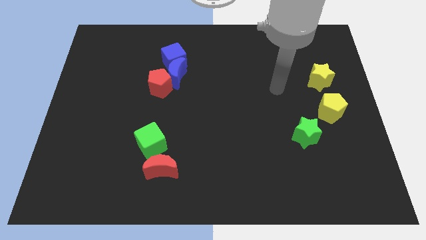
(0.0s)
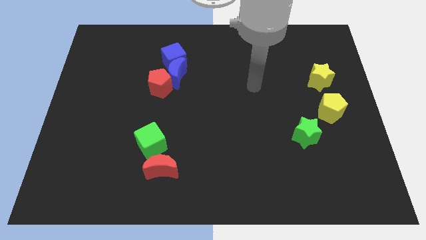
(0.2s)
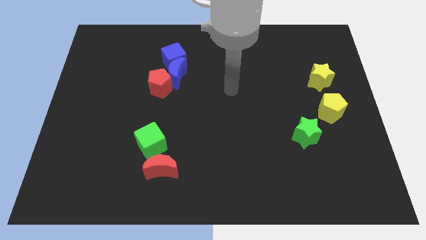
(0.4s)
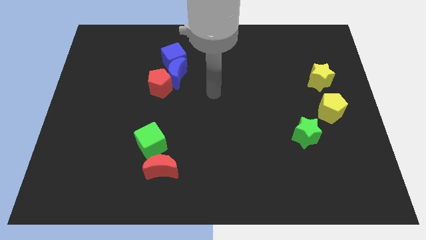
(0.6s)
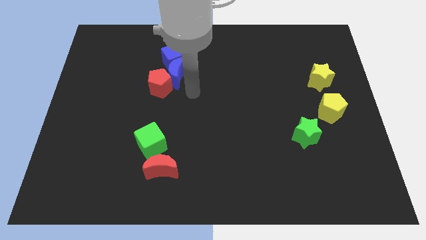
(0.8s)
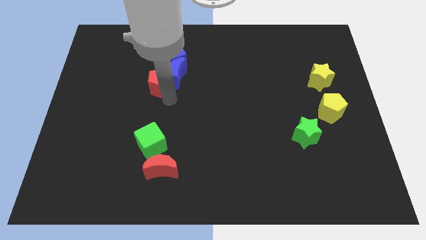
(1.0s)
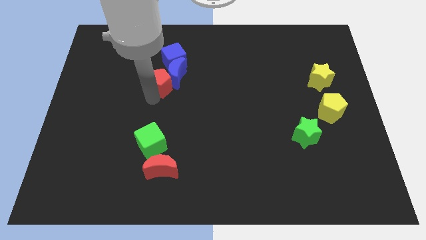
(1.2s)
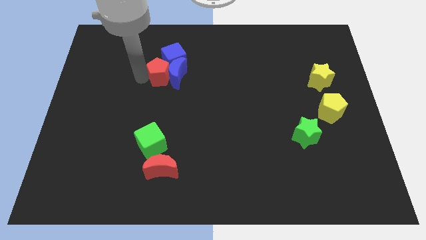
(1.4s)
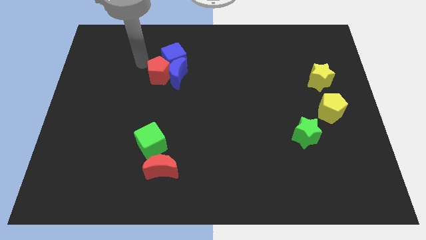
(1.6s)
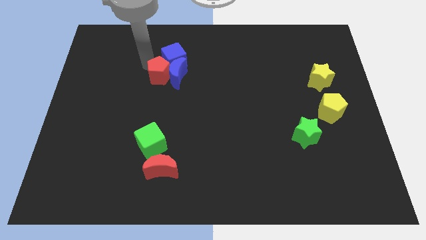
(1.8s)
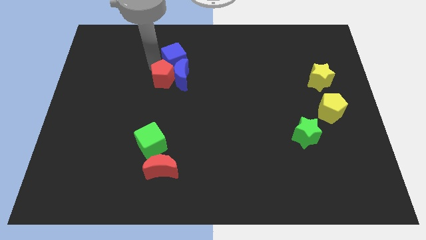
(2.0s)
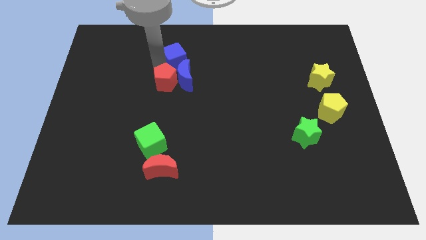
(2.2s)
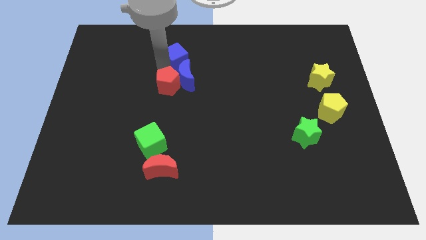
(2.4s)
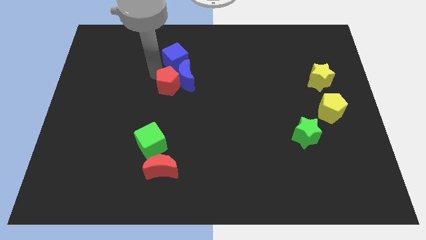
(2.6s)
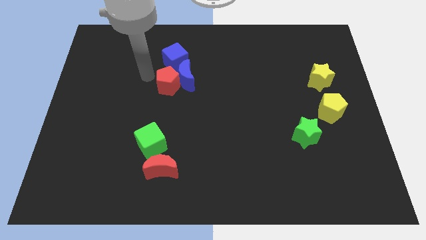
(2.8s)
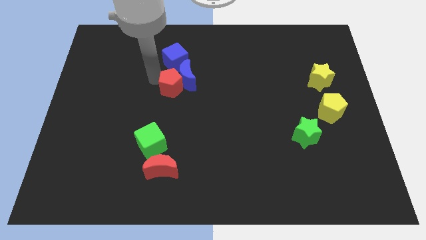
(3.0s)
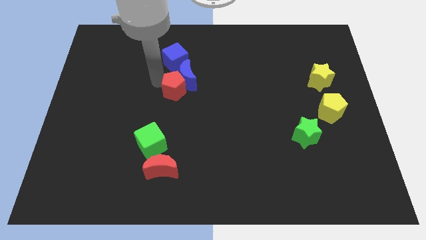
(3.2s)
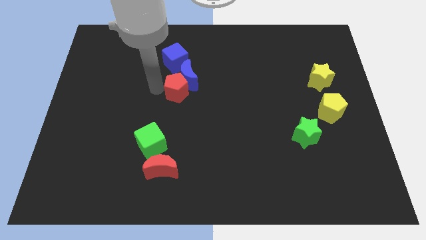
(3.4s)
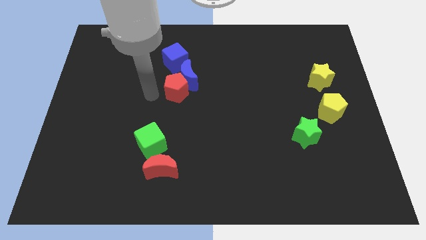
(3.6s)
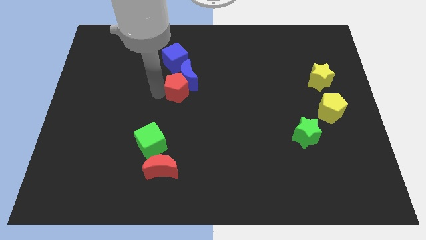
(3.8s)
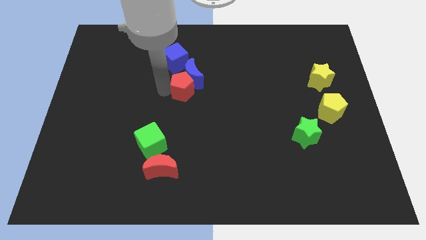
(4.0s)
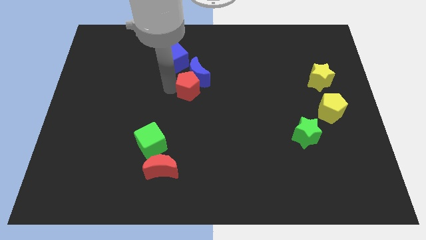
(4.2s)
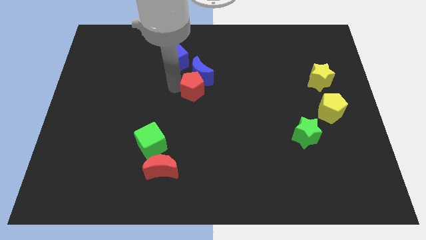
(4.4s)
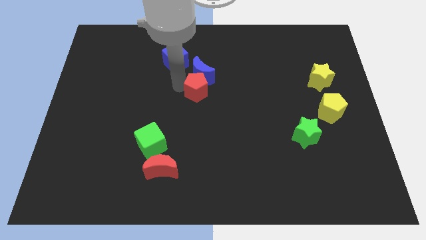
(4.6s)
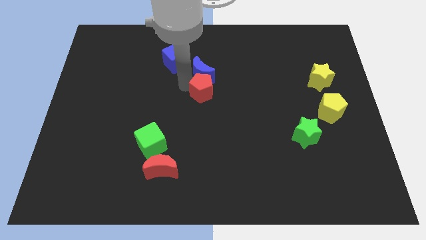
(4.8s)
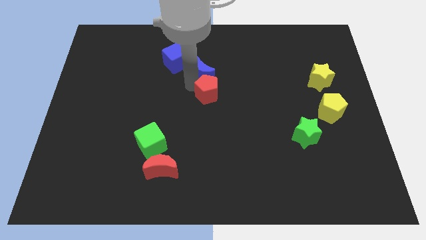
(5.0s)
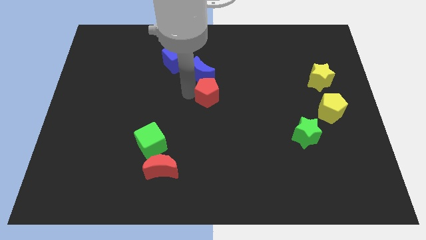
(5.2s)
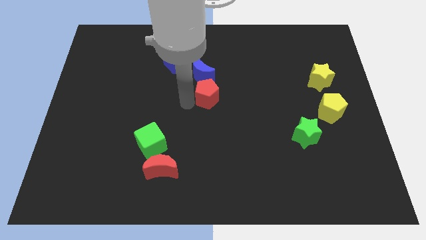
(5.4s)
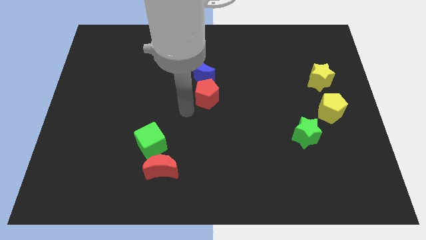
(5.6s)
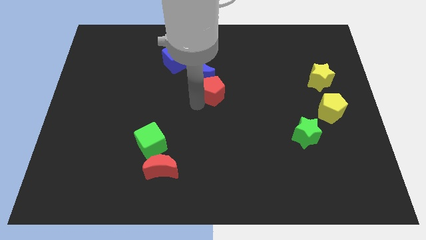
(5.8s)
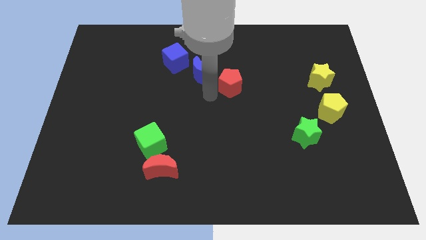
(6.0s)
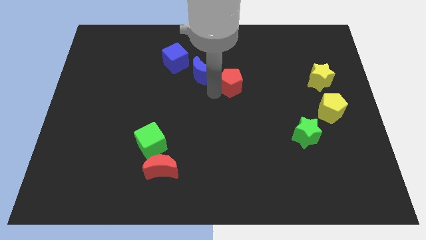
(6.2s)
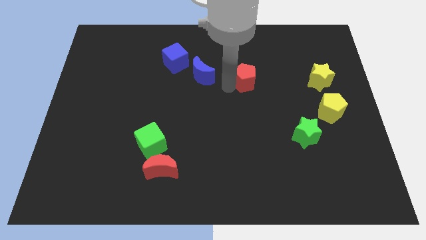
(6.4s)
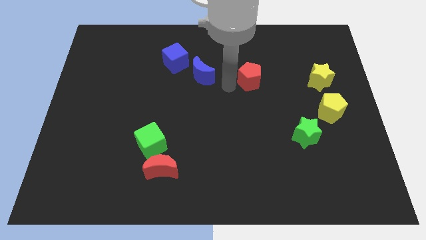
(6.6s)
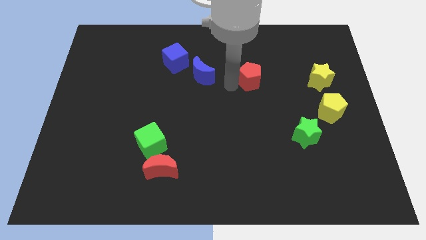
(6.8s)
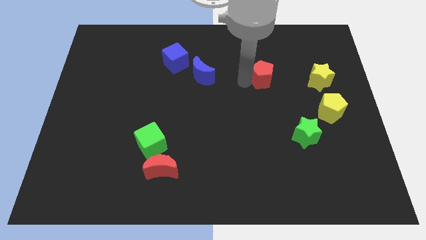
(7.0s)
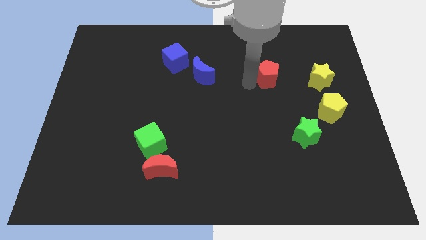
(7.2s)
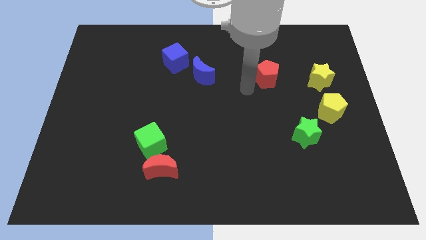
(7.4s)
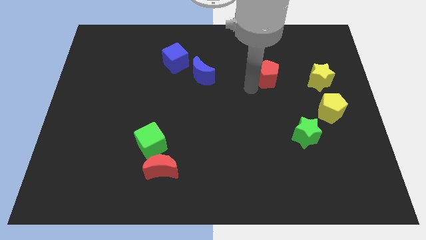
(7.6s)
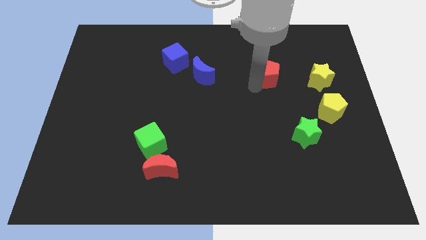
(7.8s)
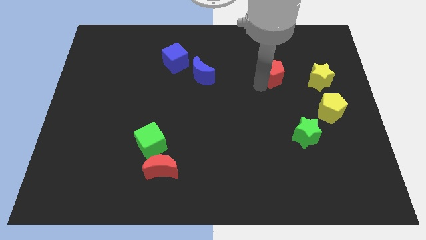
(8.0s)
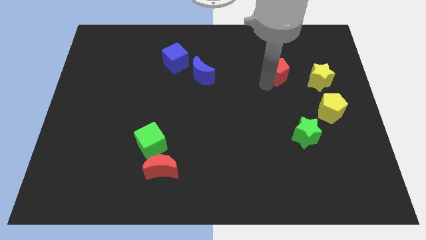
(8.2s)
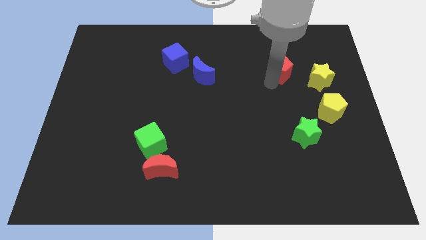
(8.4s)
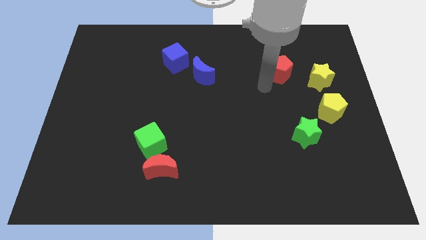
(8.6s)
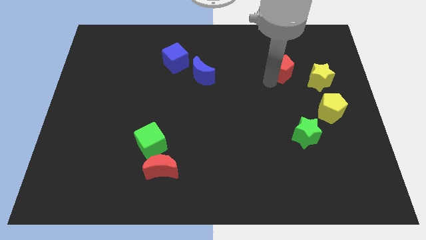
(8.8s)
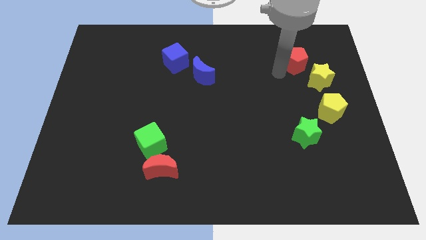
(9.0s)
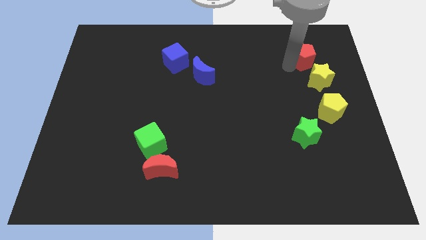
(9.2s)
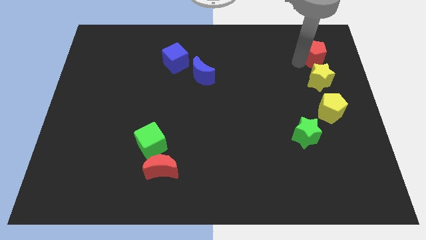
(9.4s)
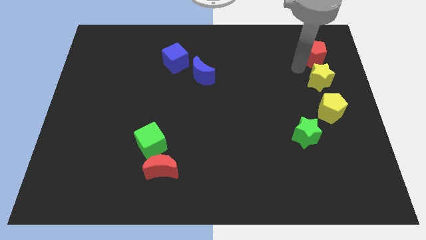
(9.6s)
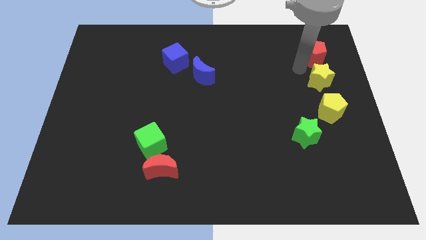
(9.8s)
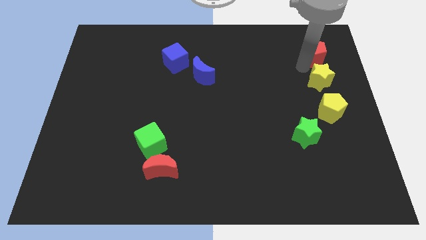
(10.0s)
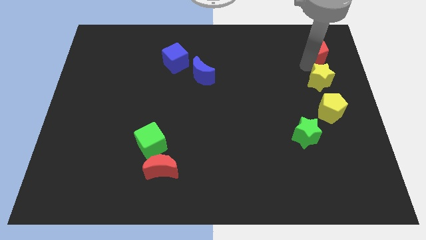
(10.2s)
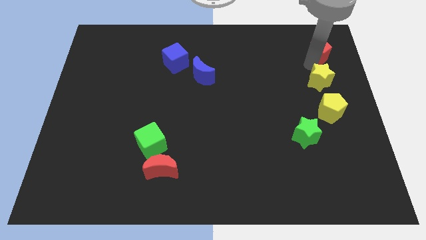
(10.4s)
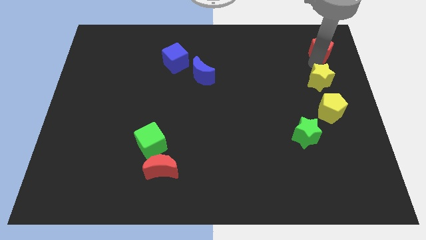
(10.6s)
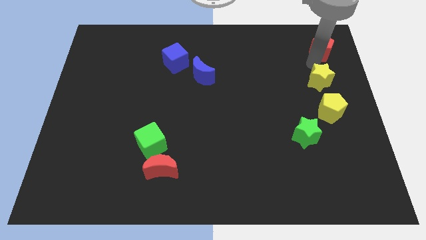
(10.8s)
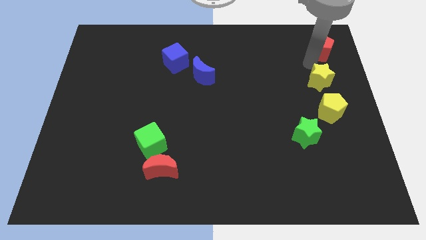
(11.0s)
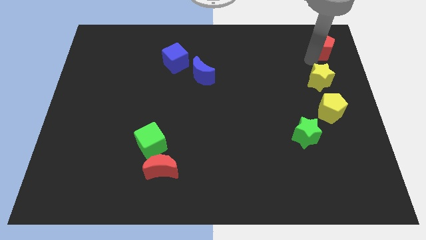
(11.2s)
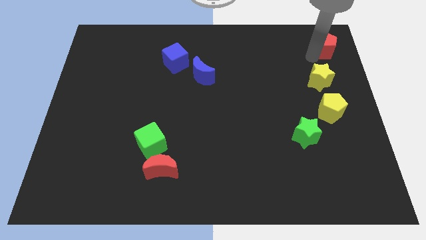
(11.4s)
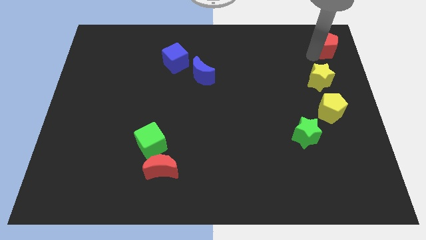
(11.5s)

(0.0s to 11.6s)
slide the red pentagon to the upper right corner

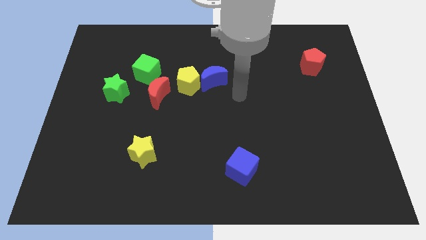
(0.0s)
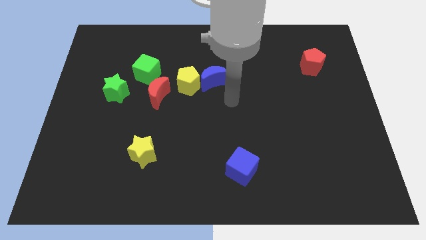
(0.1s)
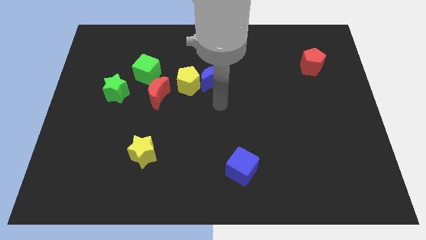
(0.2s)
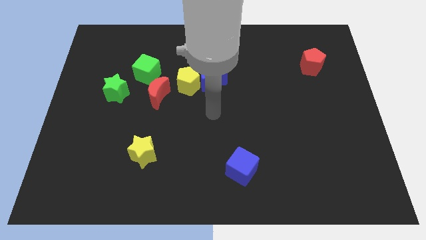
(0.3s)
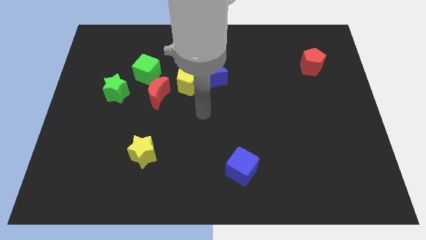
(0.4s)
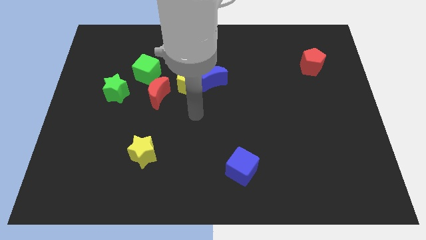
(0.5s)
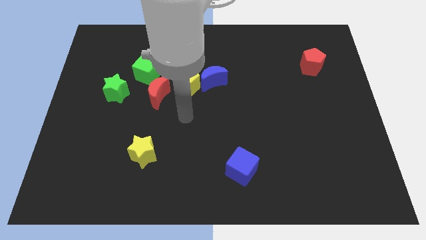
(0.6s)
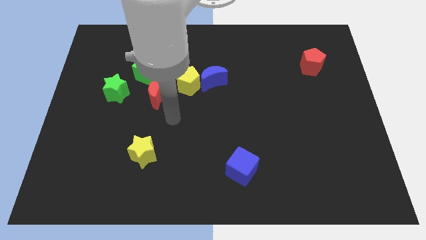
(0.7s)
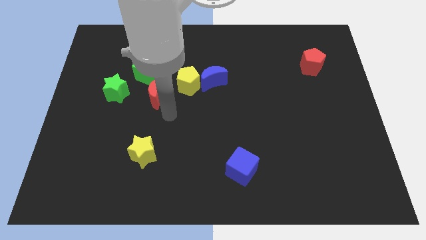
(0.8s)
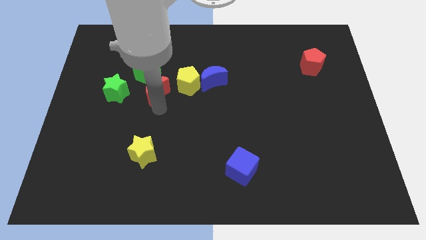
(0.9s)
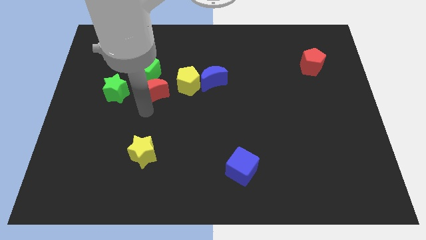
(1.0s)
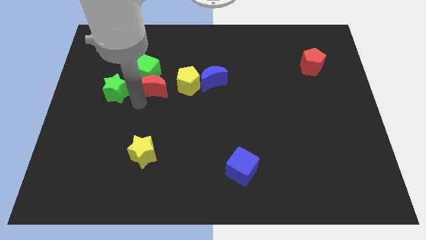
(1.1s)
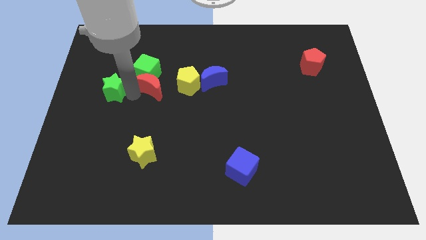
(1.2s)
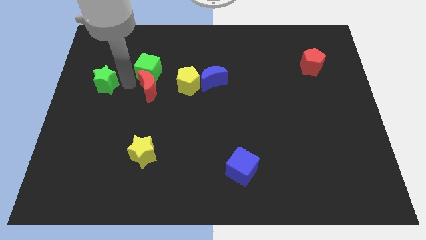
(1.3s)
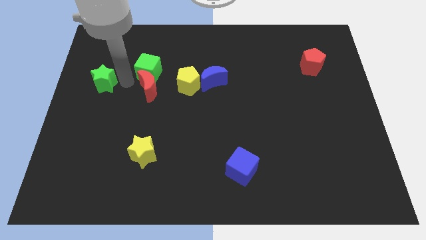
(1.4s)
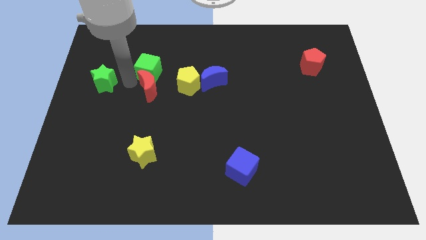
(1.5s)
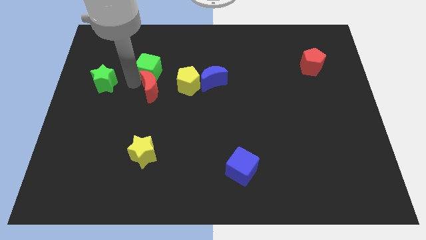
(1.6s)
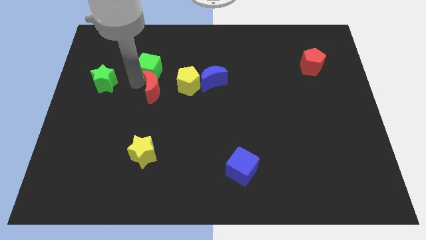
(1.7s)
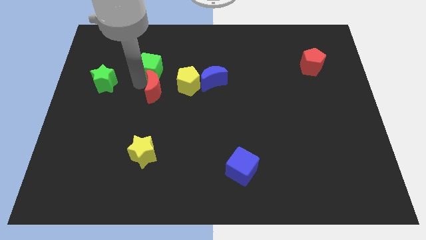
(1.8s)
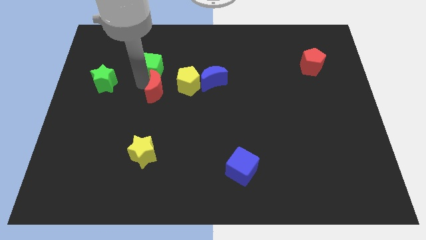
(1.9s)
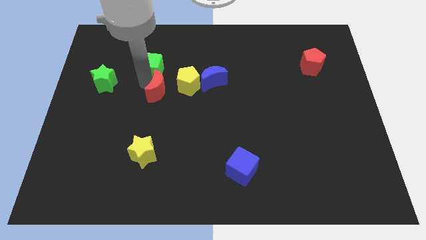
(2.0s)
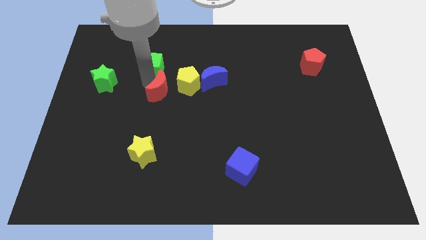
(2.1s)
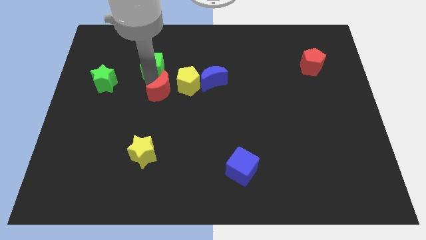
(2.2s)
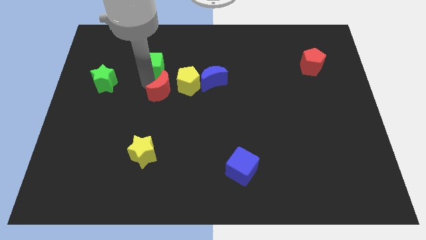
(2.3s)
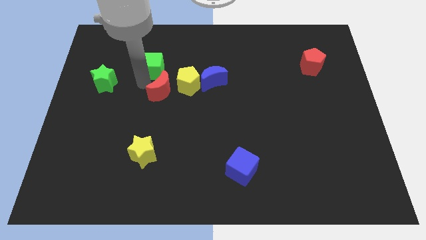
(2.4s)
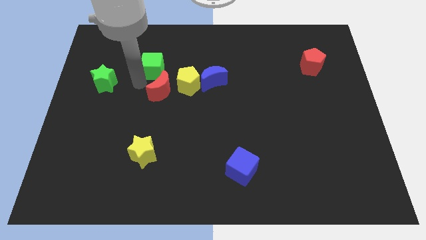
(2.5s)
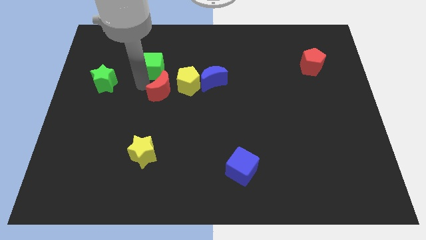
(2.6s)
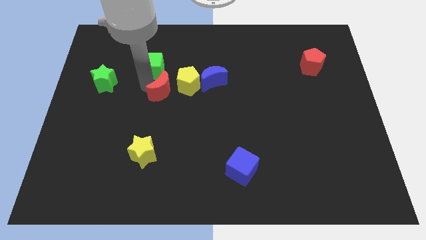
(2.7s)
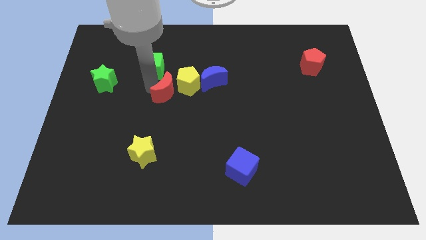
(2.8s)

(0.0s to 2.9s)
slide the red moon to the center
